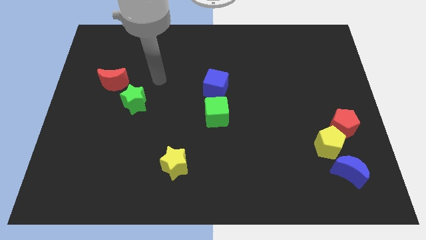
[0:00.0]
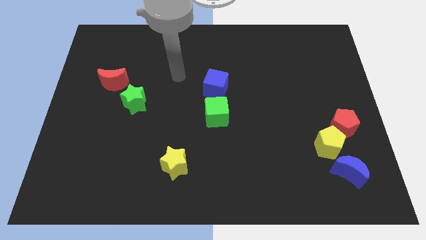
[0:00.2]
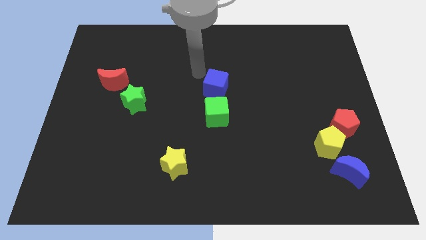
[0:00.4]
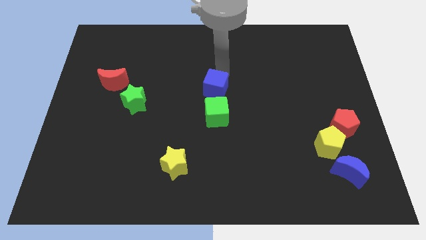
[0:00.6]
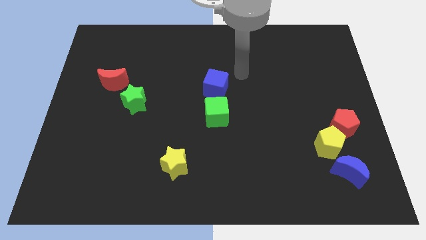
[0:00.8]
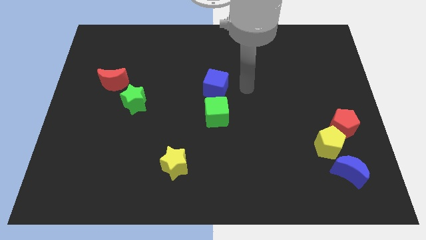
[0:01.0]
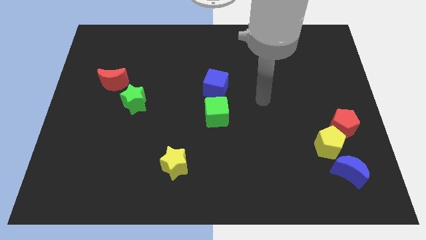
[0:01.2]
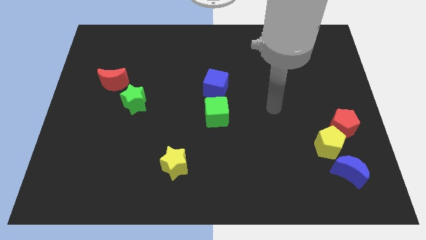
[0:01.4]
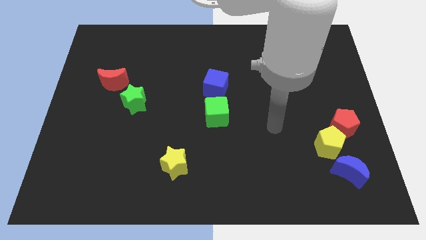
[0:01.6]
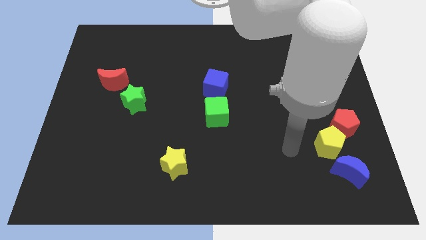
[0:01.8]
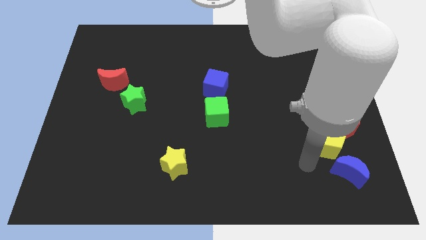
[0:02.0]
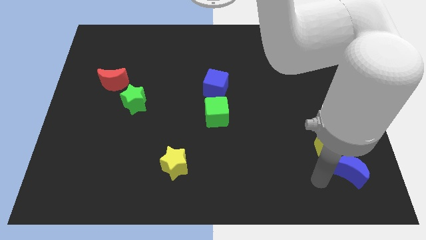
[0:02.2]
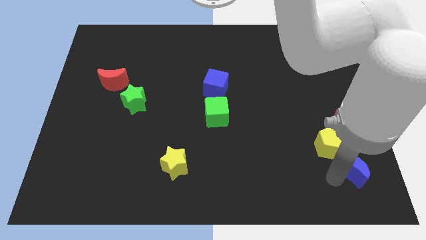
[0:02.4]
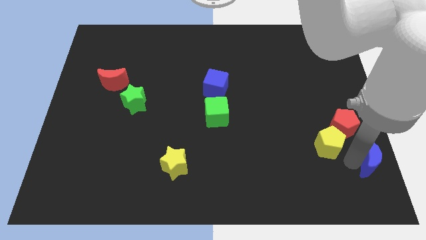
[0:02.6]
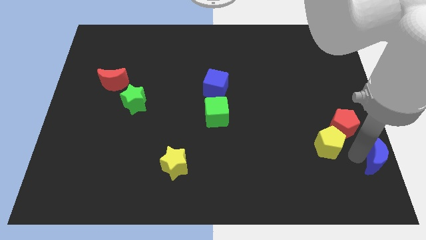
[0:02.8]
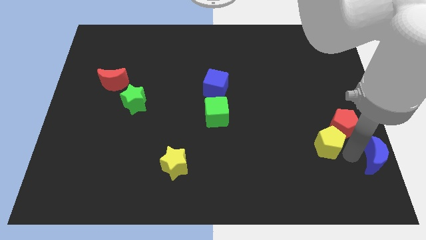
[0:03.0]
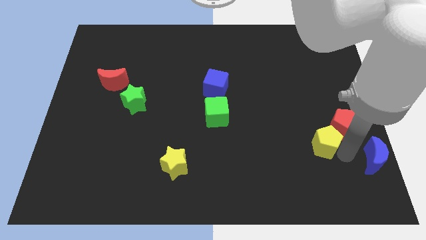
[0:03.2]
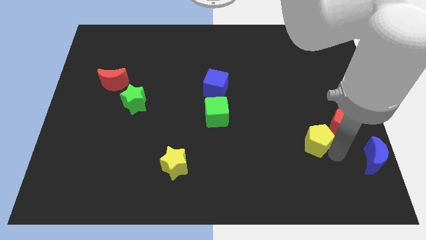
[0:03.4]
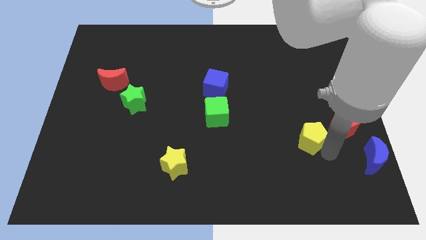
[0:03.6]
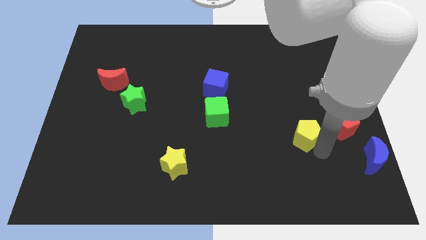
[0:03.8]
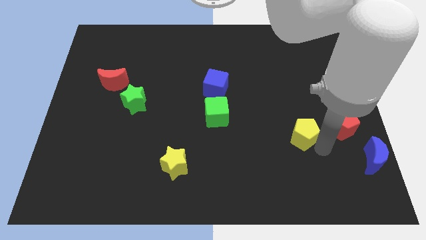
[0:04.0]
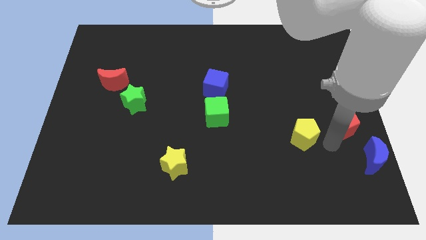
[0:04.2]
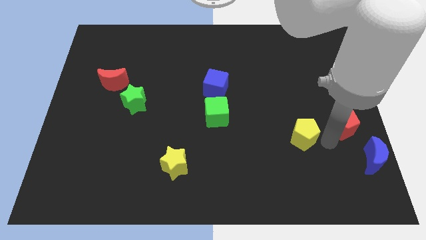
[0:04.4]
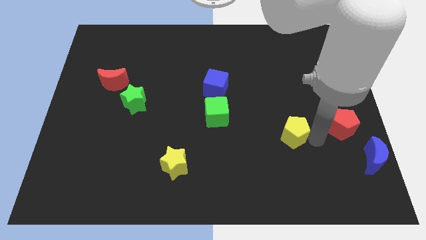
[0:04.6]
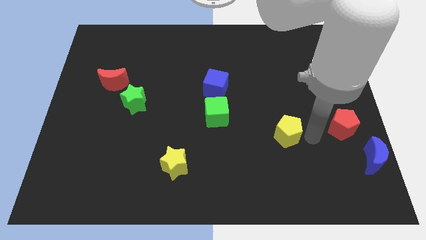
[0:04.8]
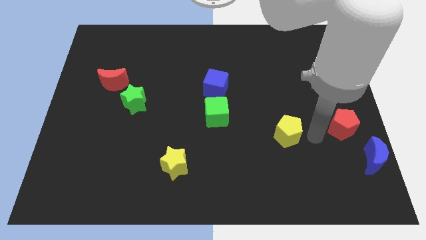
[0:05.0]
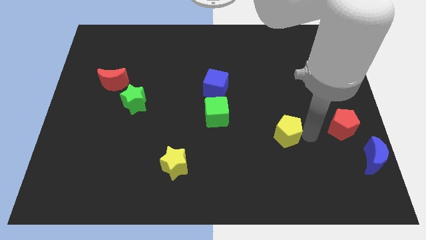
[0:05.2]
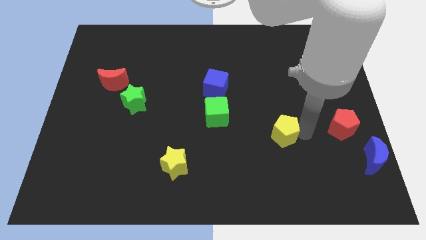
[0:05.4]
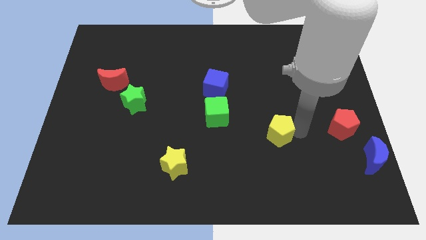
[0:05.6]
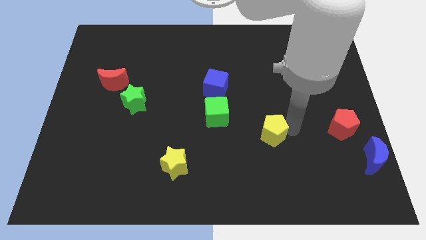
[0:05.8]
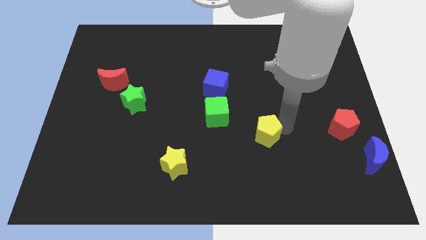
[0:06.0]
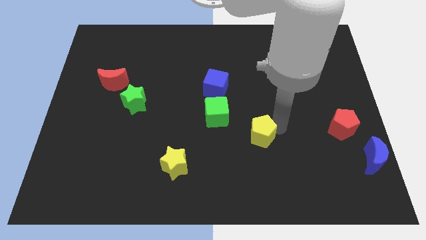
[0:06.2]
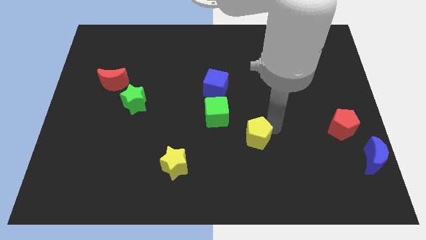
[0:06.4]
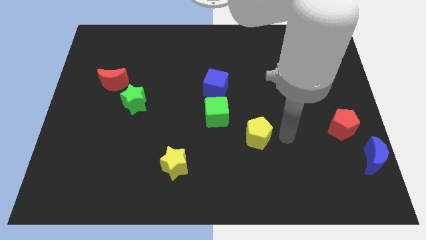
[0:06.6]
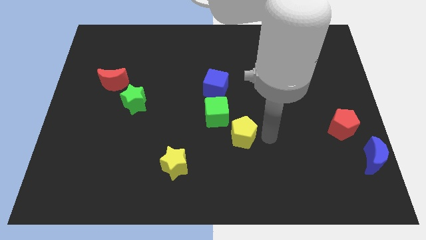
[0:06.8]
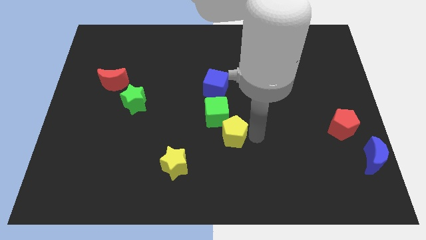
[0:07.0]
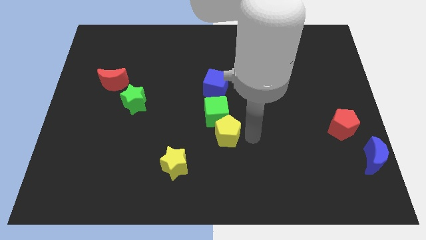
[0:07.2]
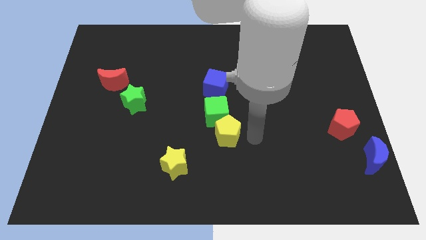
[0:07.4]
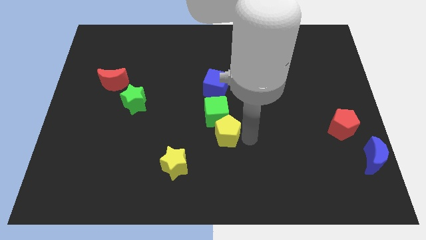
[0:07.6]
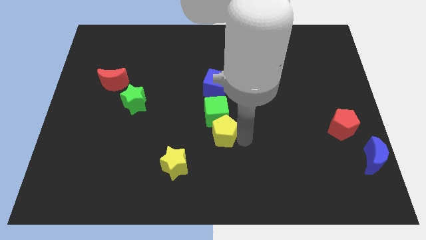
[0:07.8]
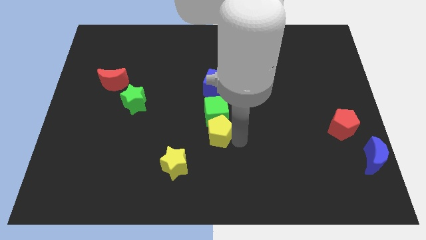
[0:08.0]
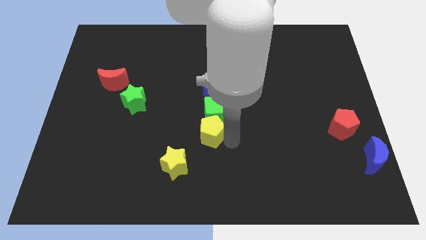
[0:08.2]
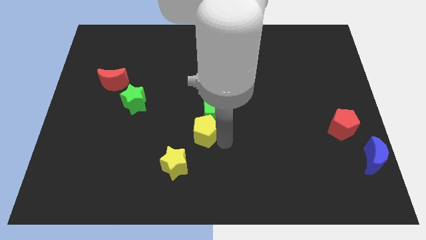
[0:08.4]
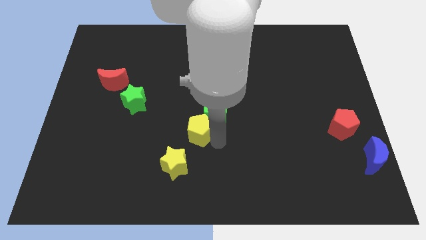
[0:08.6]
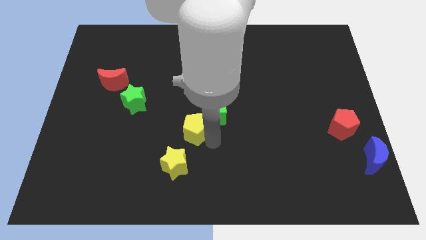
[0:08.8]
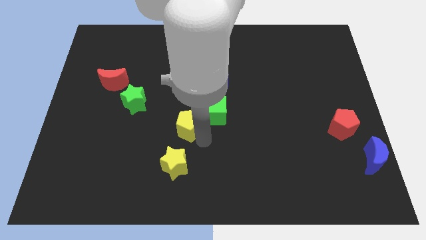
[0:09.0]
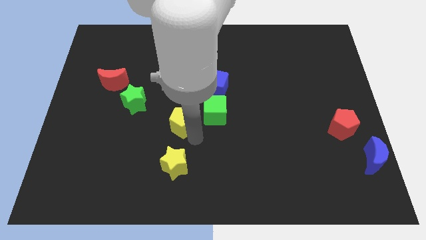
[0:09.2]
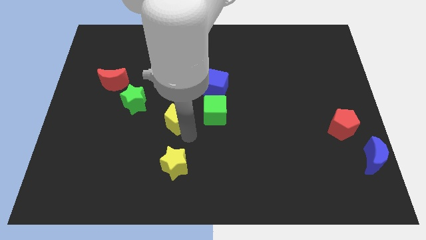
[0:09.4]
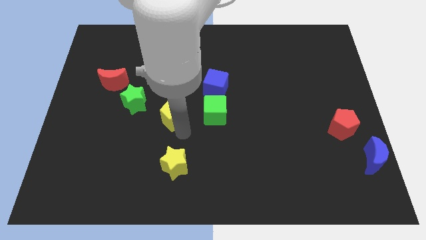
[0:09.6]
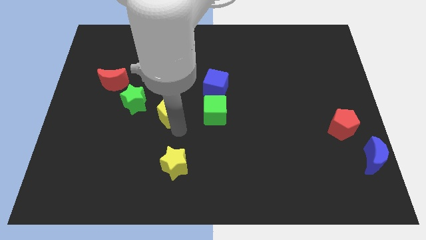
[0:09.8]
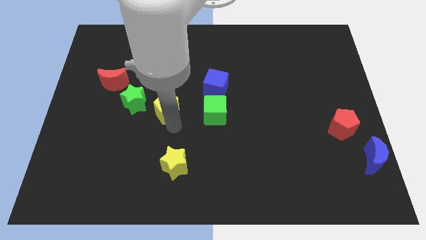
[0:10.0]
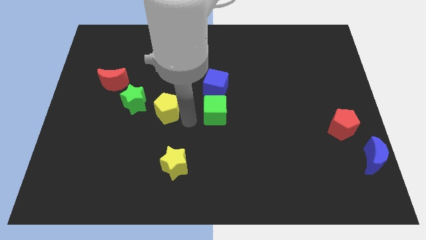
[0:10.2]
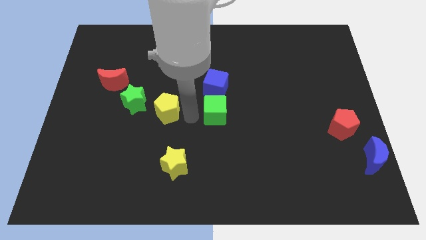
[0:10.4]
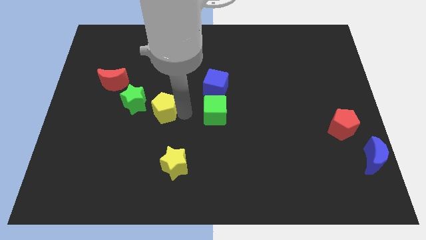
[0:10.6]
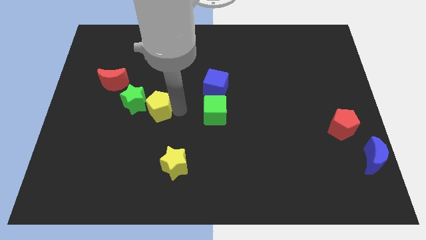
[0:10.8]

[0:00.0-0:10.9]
slide the yellow pentagon next to the green star

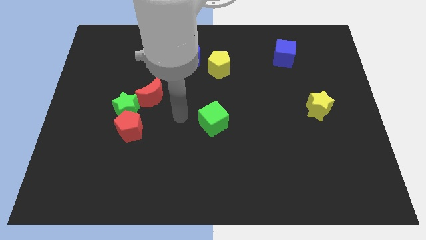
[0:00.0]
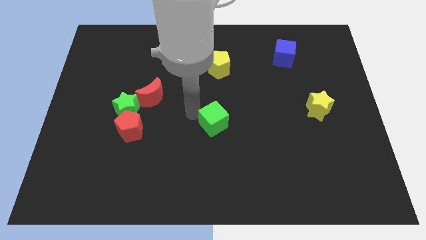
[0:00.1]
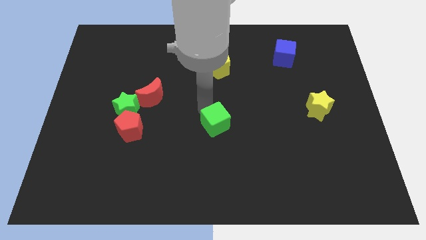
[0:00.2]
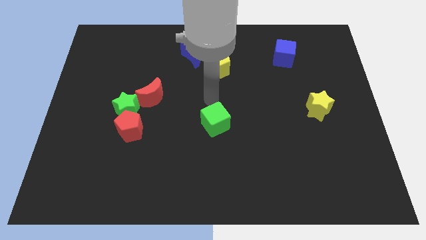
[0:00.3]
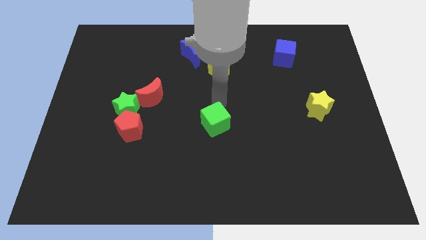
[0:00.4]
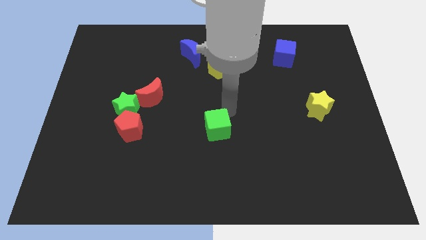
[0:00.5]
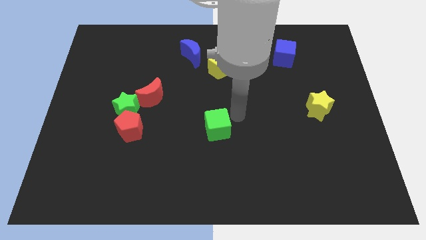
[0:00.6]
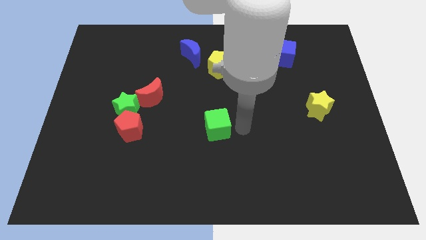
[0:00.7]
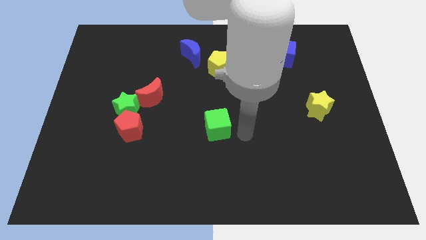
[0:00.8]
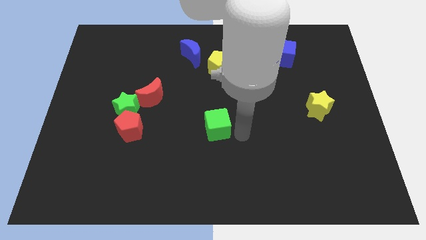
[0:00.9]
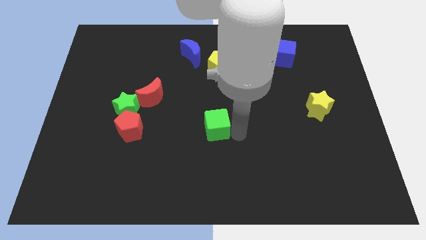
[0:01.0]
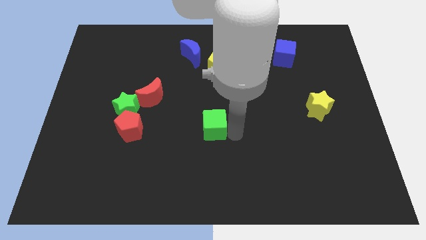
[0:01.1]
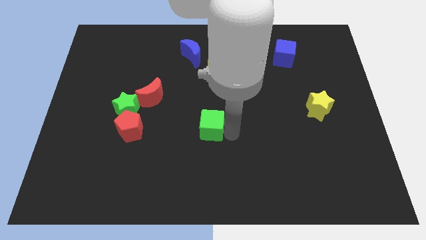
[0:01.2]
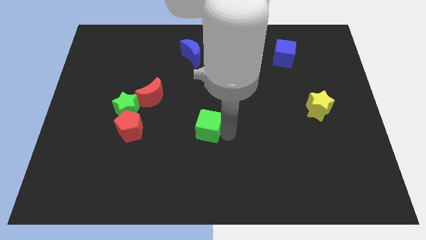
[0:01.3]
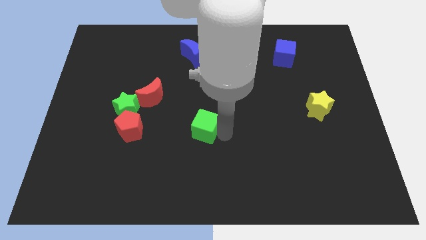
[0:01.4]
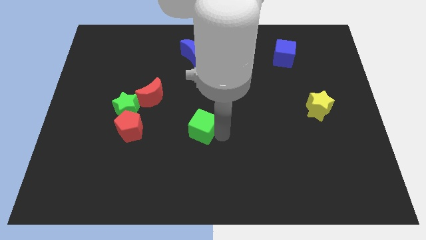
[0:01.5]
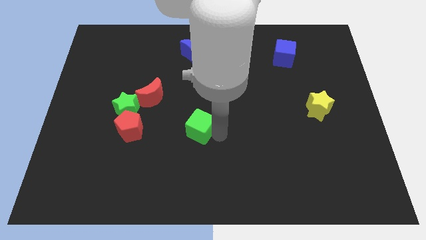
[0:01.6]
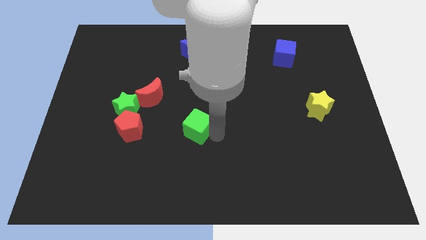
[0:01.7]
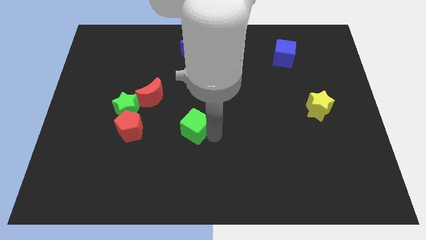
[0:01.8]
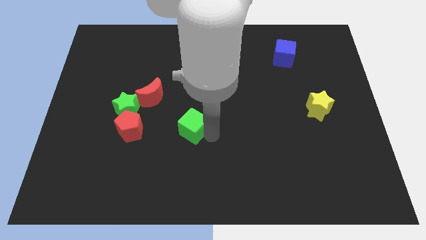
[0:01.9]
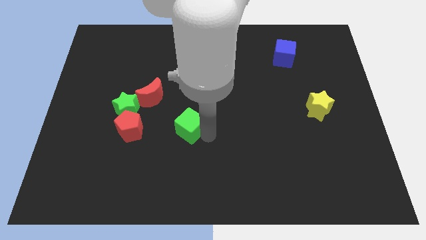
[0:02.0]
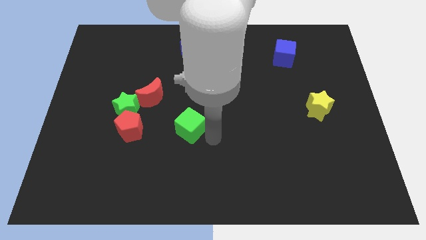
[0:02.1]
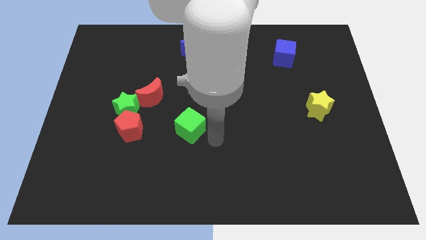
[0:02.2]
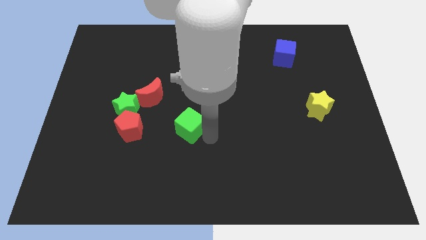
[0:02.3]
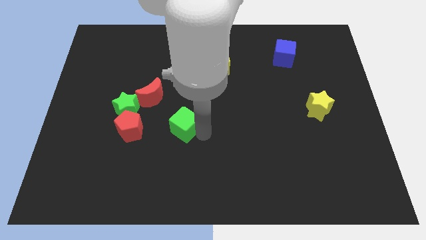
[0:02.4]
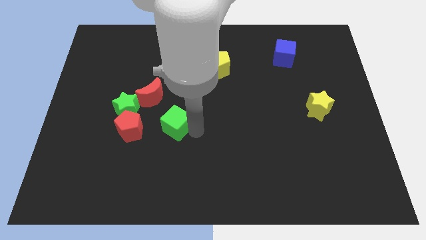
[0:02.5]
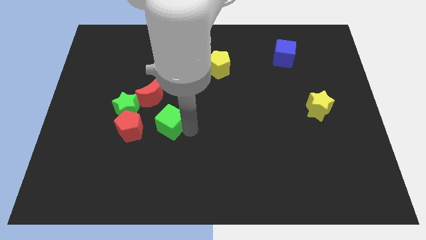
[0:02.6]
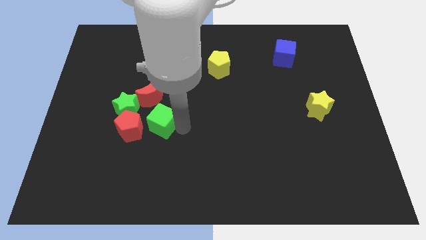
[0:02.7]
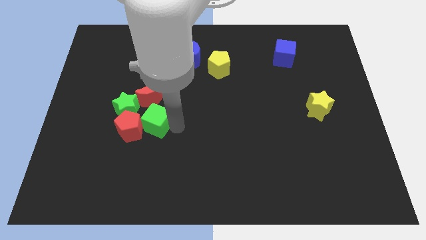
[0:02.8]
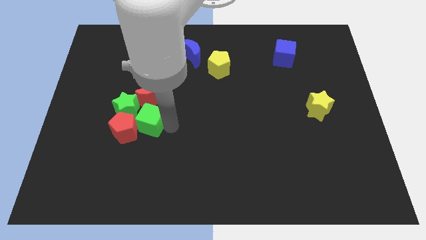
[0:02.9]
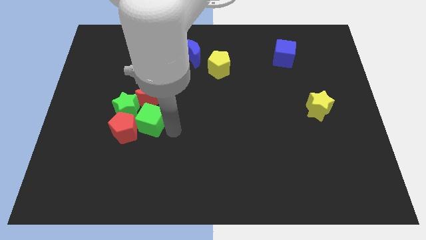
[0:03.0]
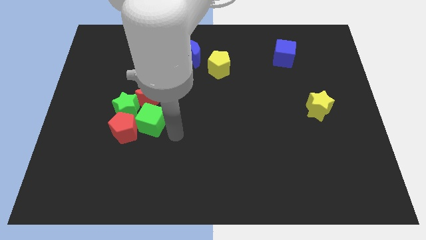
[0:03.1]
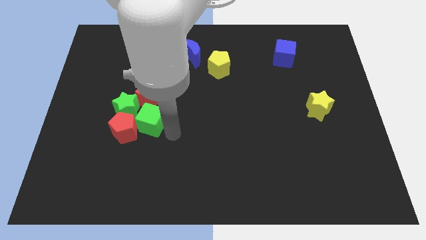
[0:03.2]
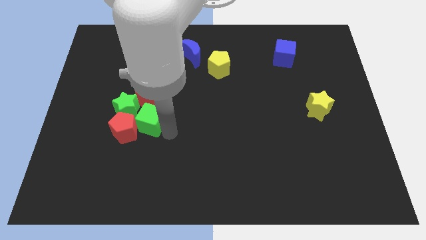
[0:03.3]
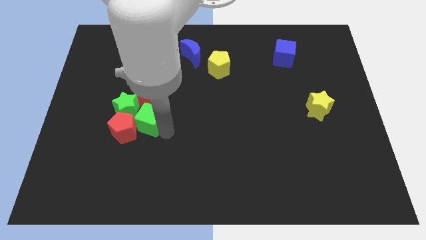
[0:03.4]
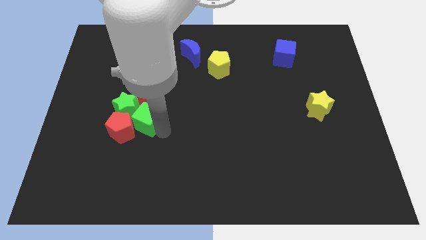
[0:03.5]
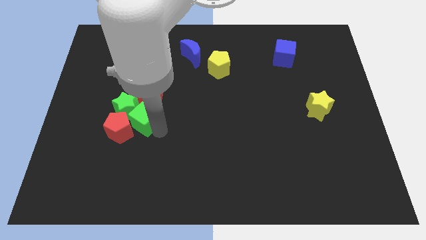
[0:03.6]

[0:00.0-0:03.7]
push the green cube close to the green star
